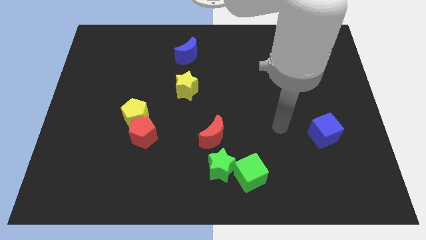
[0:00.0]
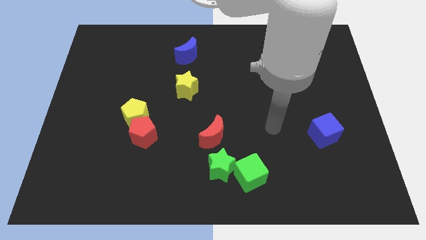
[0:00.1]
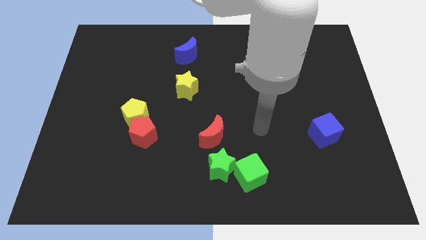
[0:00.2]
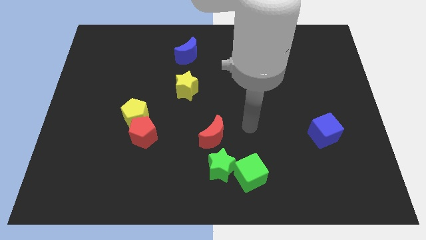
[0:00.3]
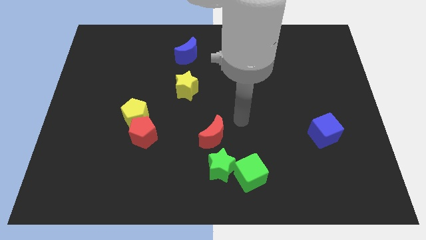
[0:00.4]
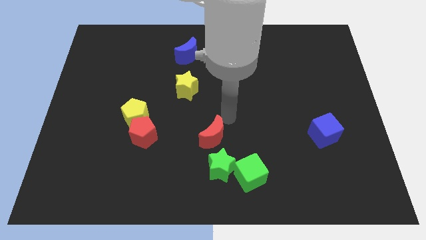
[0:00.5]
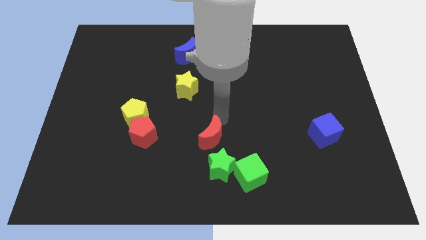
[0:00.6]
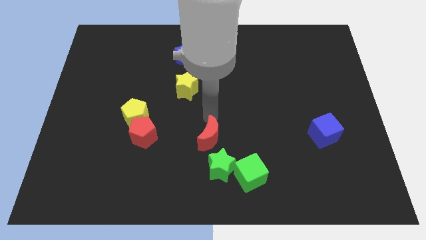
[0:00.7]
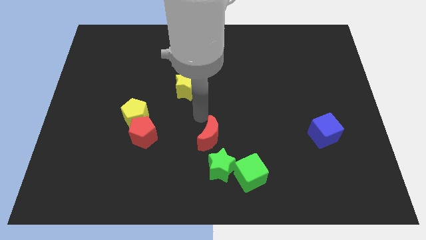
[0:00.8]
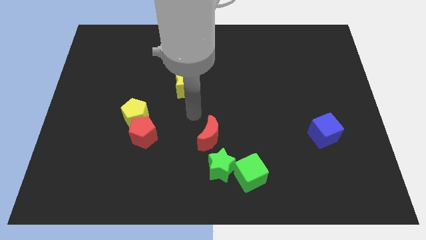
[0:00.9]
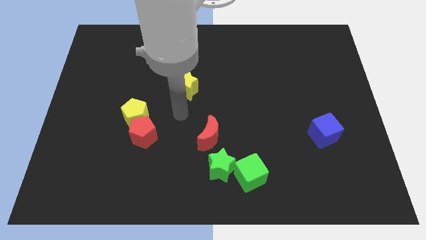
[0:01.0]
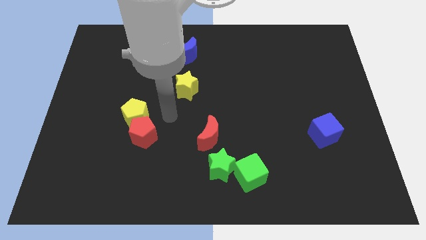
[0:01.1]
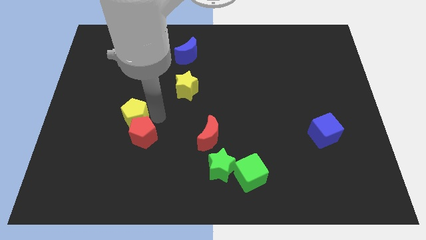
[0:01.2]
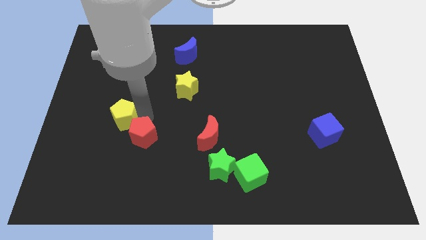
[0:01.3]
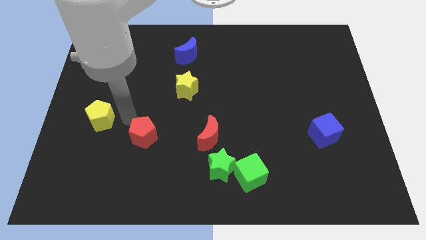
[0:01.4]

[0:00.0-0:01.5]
separate the red pentagon from the yellow pentagon

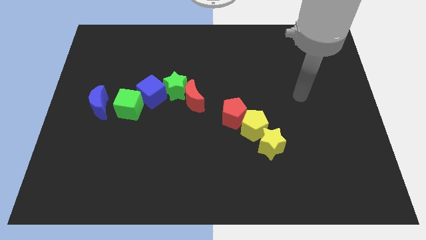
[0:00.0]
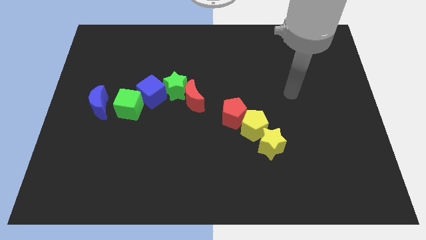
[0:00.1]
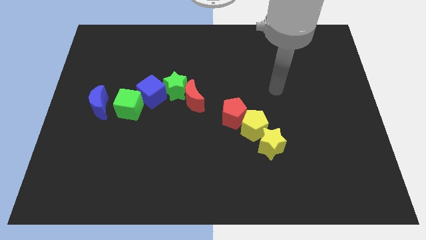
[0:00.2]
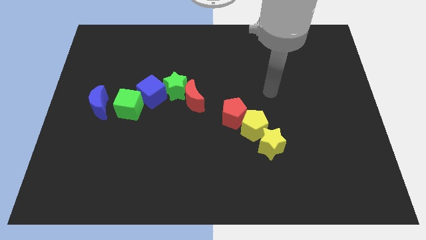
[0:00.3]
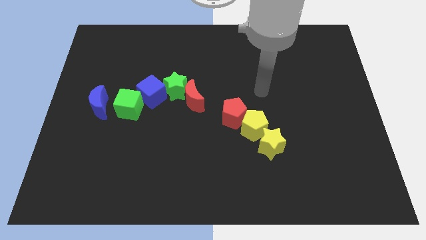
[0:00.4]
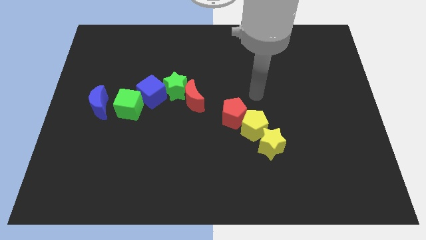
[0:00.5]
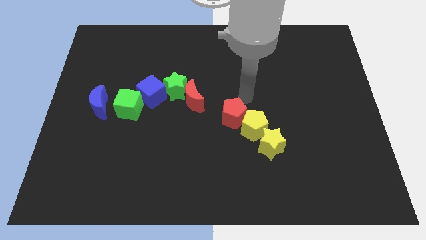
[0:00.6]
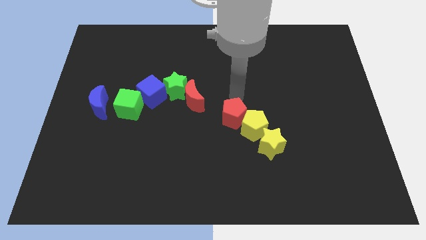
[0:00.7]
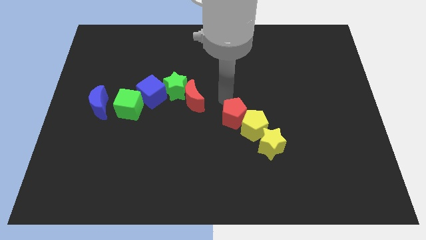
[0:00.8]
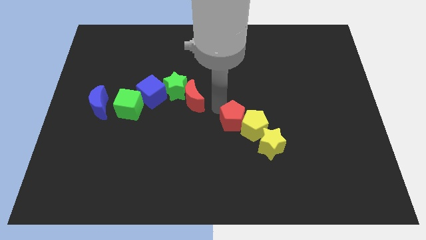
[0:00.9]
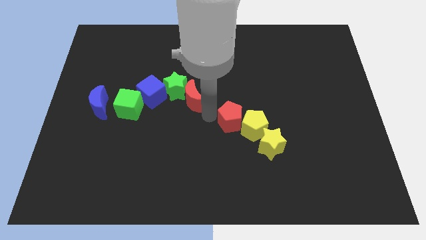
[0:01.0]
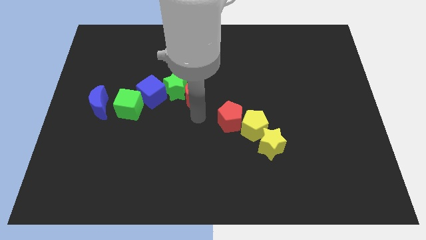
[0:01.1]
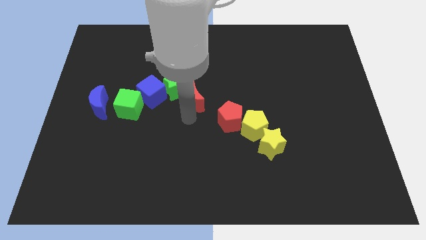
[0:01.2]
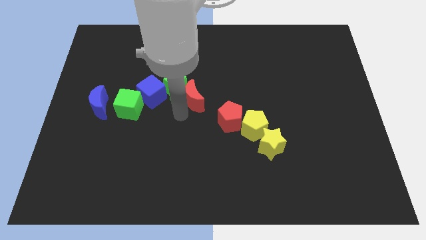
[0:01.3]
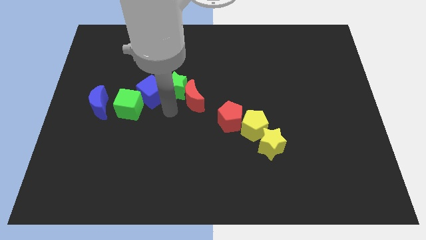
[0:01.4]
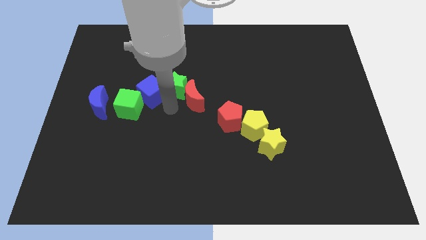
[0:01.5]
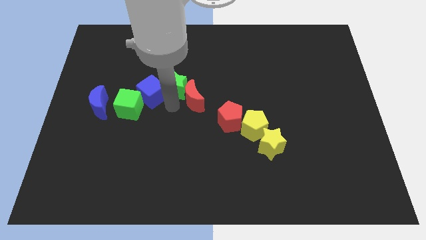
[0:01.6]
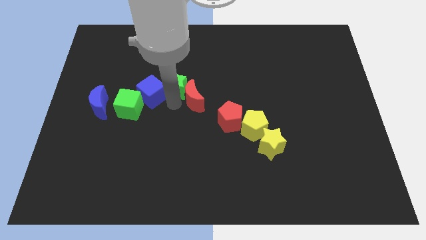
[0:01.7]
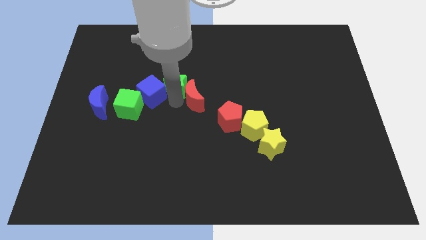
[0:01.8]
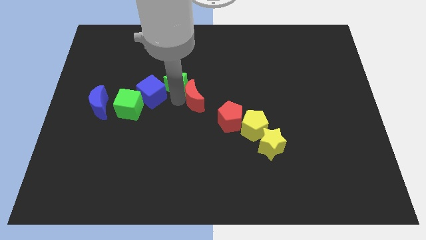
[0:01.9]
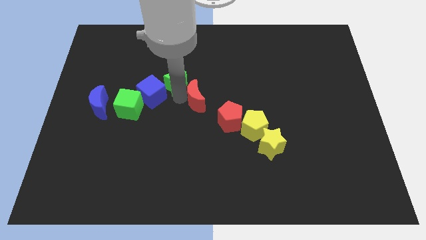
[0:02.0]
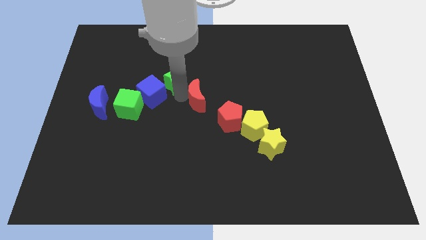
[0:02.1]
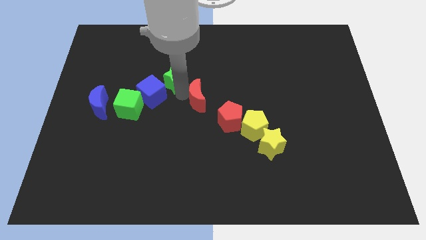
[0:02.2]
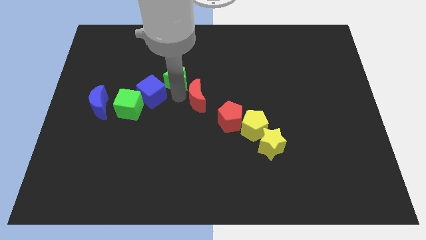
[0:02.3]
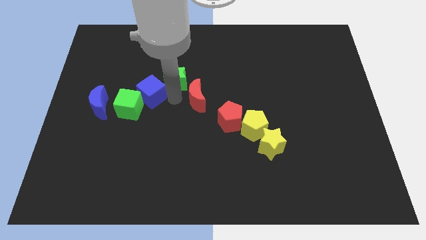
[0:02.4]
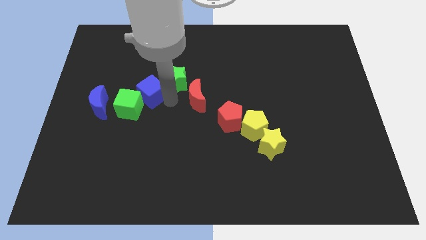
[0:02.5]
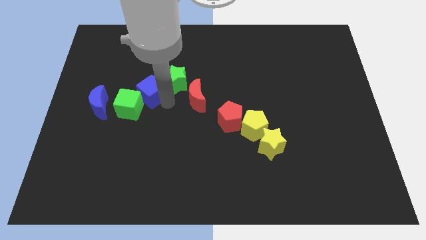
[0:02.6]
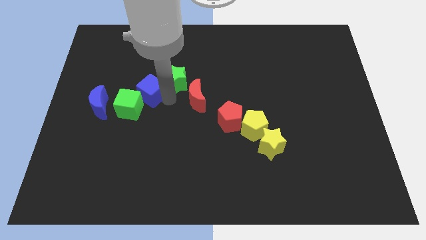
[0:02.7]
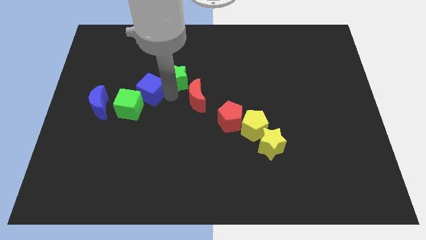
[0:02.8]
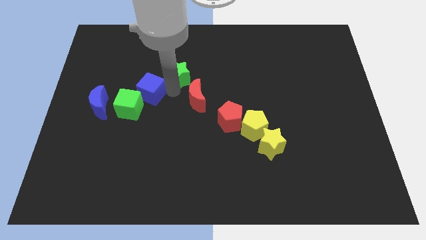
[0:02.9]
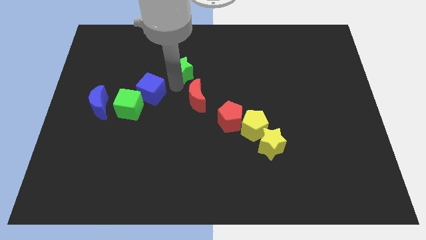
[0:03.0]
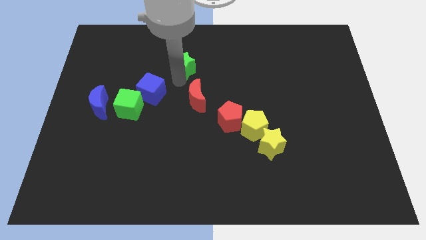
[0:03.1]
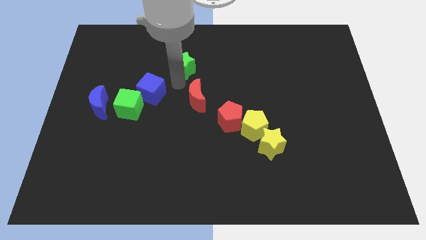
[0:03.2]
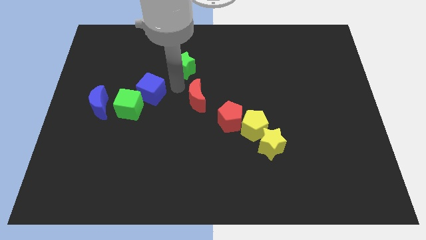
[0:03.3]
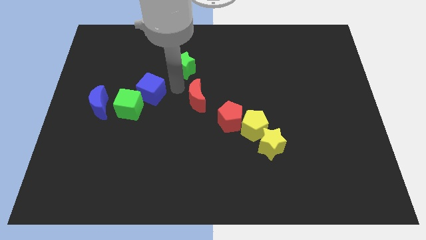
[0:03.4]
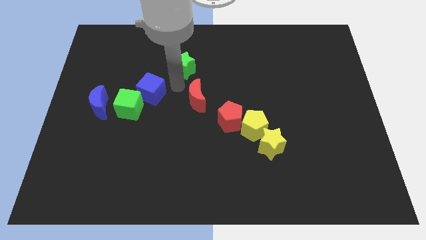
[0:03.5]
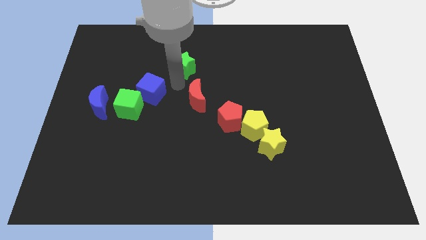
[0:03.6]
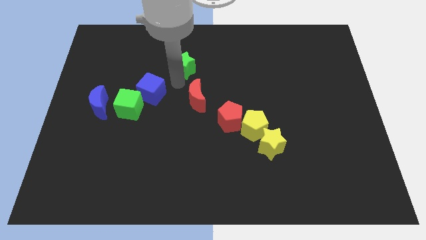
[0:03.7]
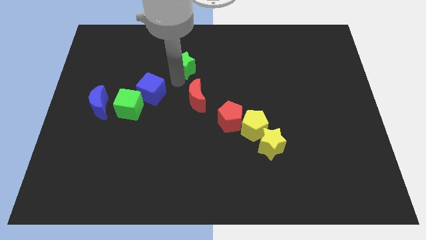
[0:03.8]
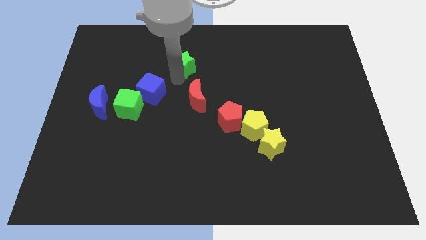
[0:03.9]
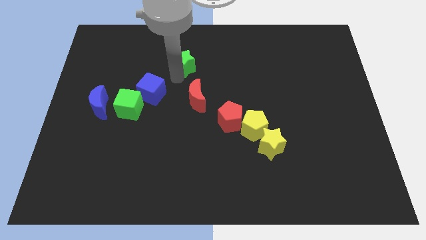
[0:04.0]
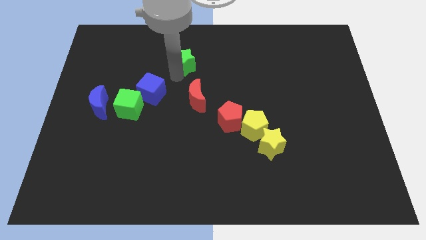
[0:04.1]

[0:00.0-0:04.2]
pull the green star apart from the red moon and blue cube

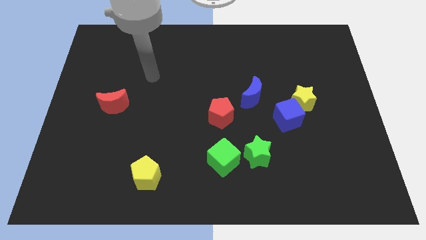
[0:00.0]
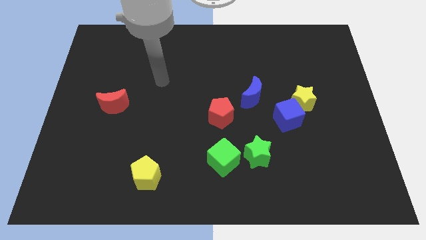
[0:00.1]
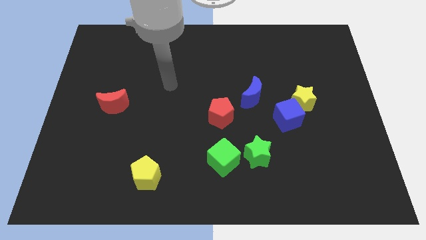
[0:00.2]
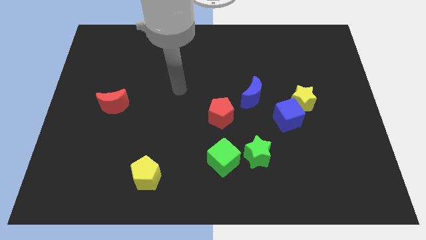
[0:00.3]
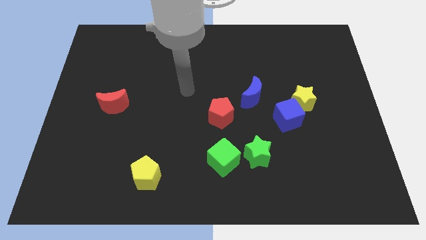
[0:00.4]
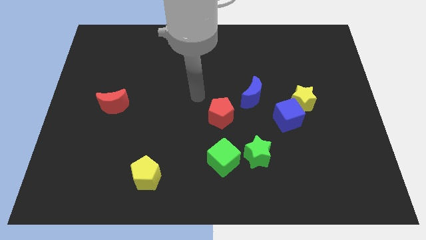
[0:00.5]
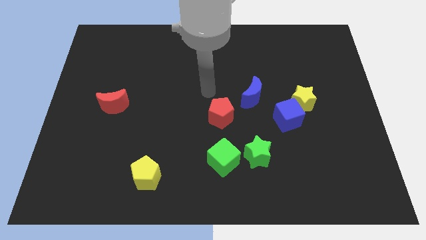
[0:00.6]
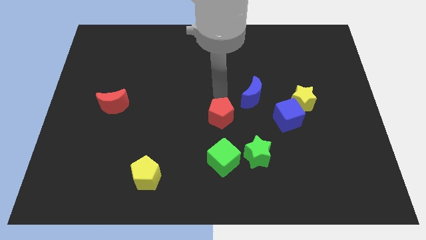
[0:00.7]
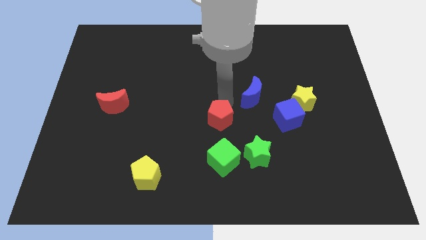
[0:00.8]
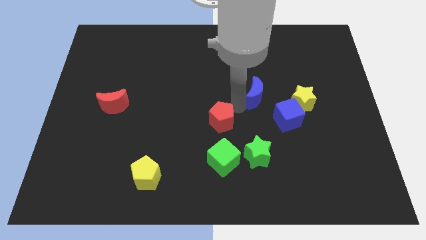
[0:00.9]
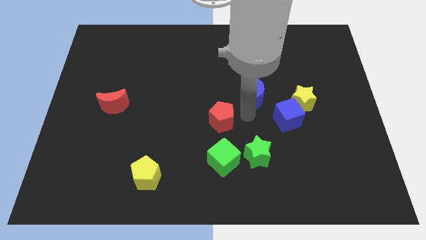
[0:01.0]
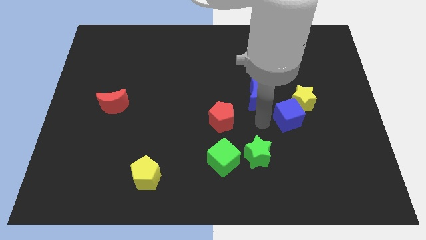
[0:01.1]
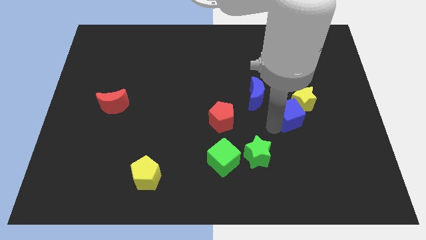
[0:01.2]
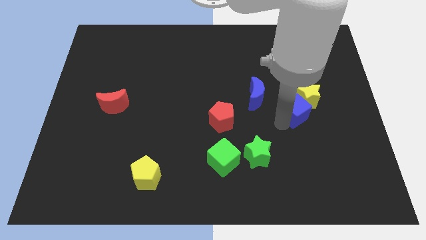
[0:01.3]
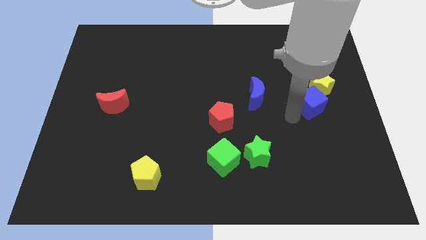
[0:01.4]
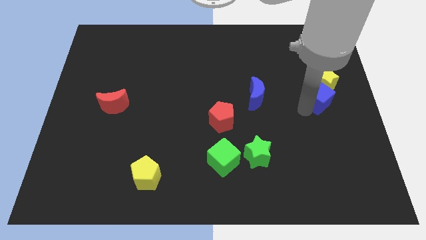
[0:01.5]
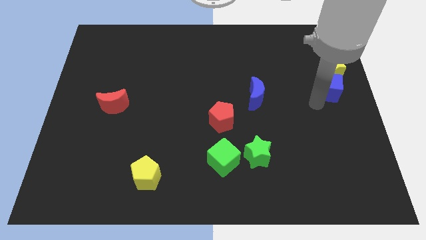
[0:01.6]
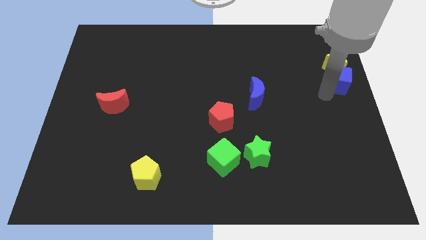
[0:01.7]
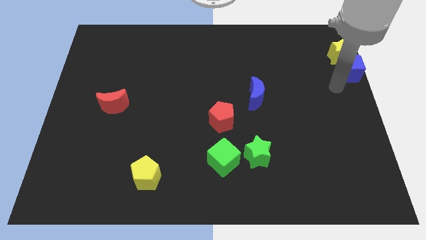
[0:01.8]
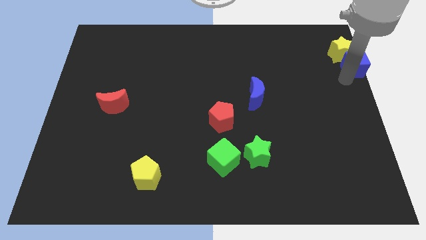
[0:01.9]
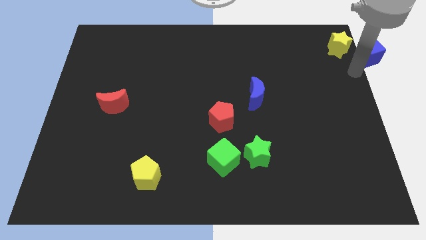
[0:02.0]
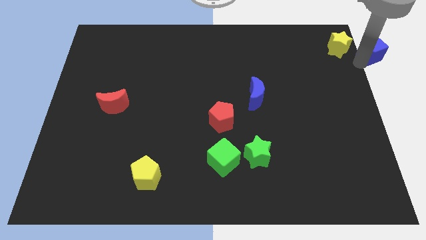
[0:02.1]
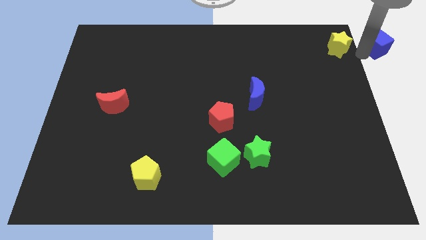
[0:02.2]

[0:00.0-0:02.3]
separate the yellow star from the blue cube

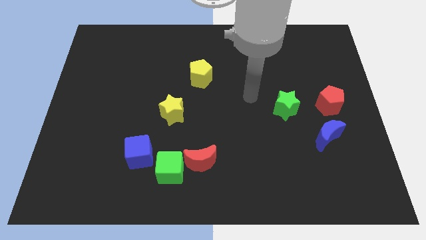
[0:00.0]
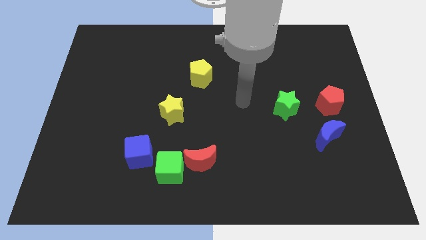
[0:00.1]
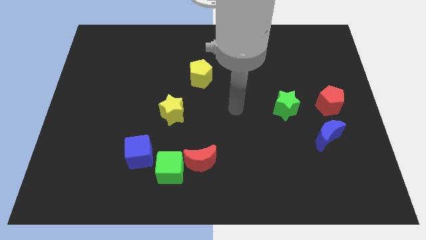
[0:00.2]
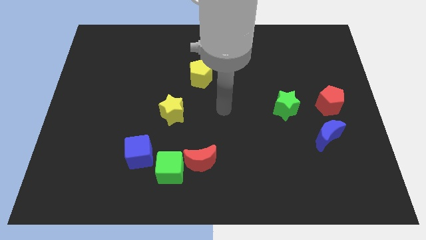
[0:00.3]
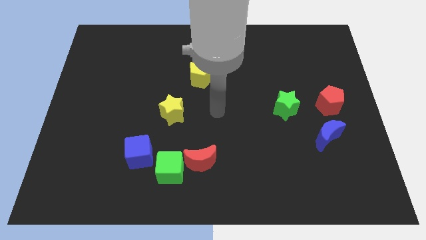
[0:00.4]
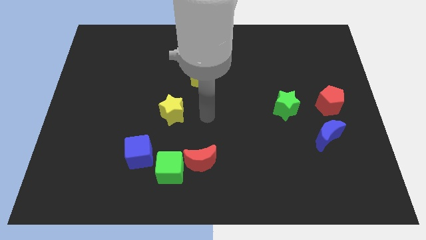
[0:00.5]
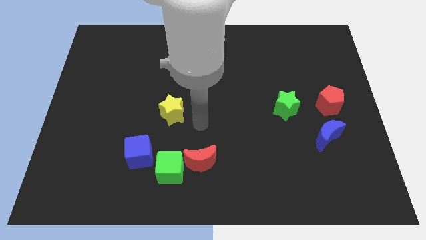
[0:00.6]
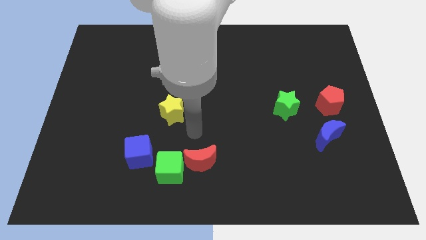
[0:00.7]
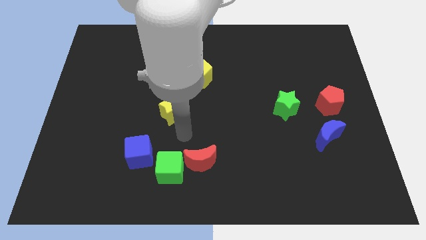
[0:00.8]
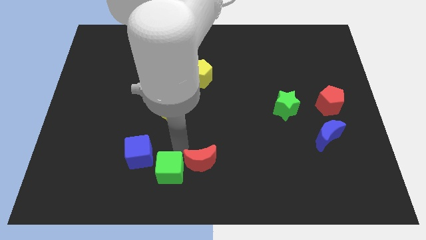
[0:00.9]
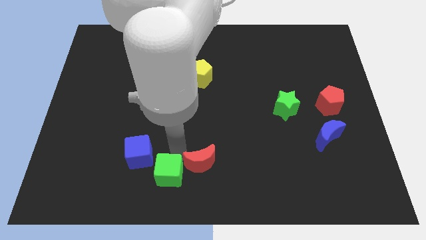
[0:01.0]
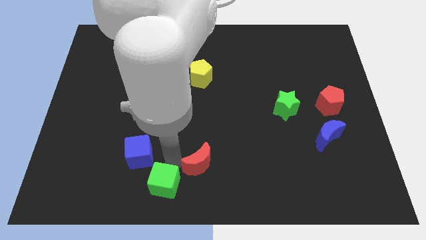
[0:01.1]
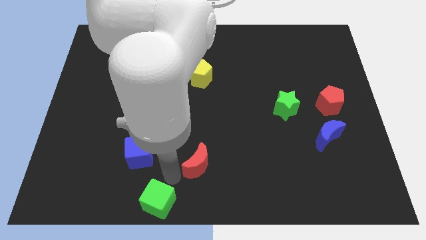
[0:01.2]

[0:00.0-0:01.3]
pull the red moon apart from the green cube
